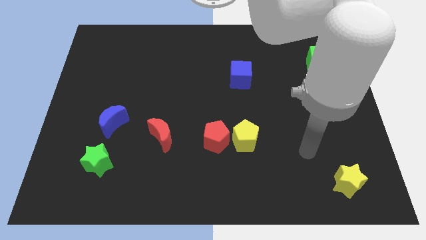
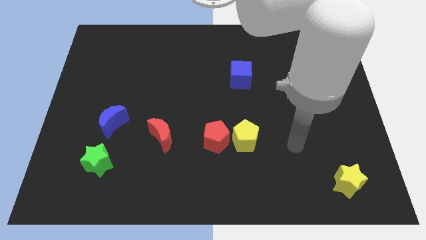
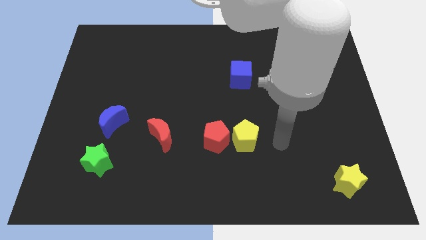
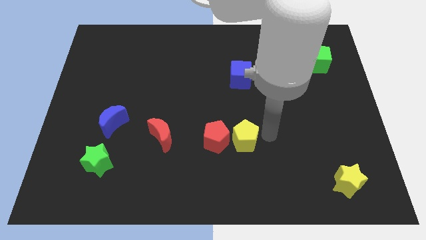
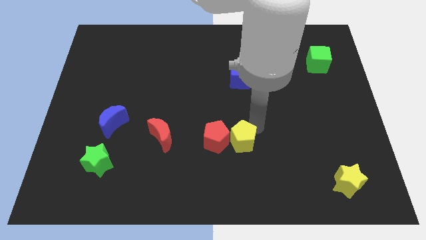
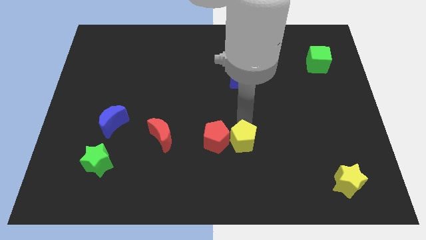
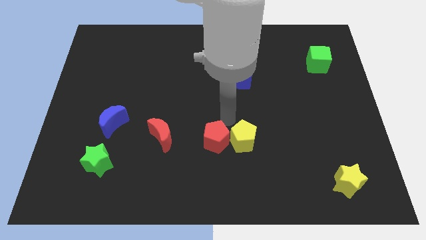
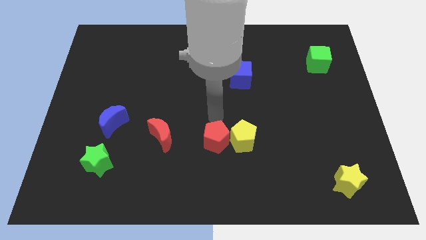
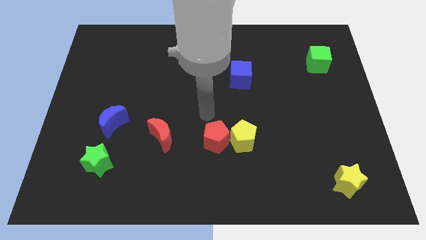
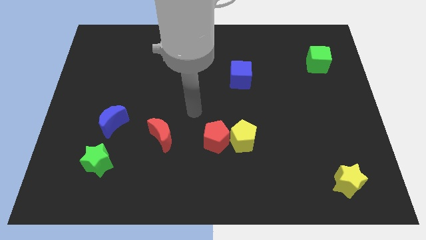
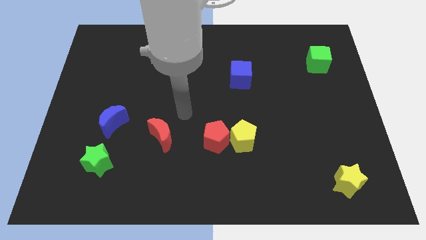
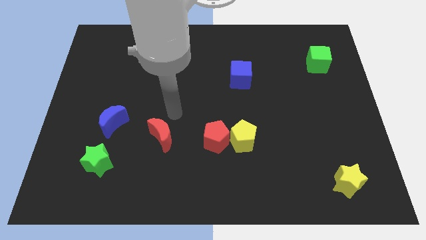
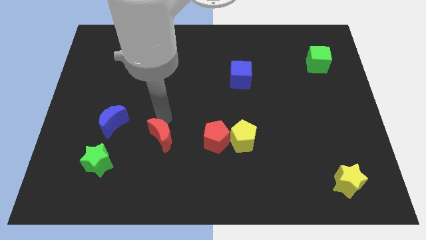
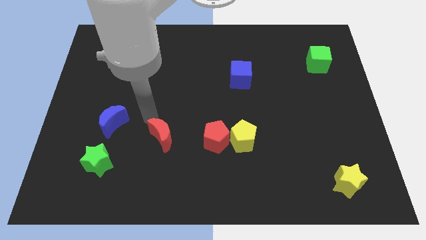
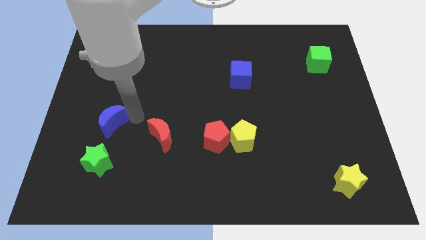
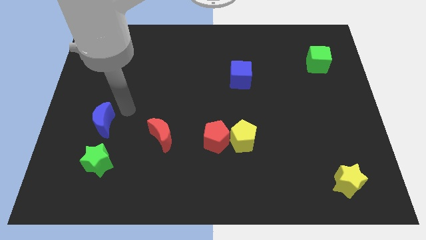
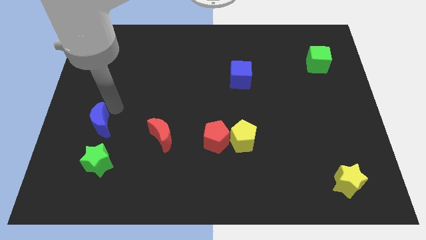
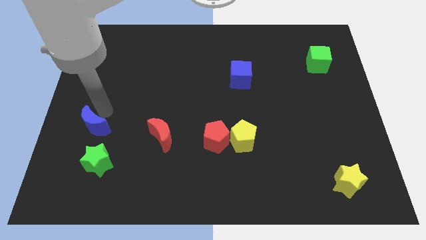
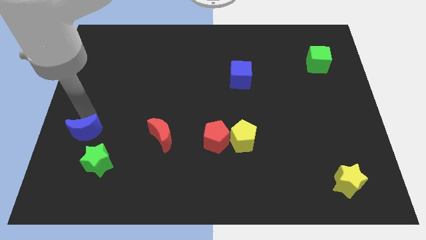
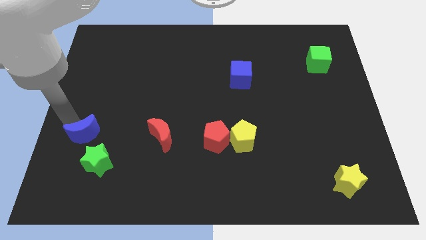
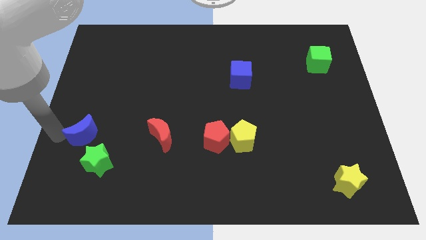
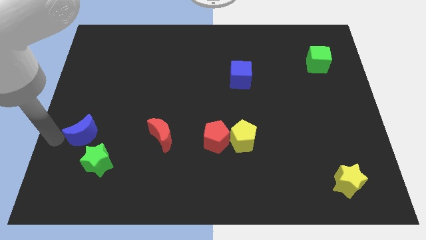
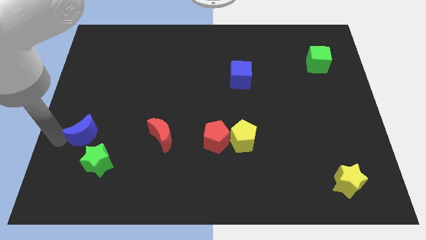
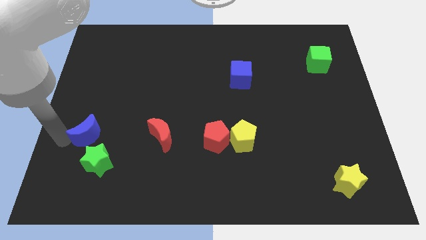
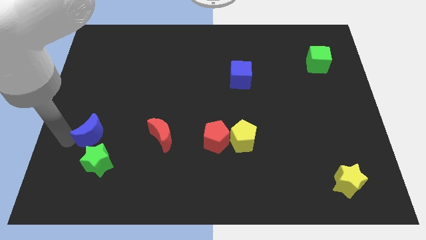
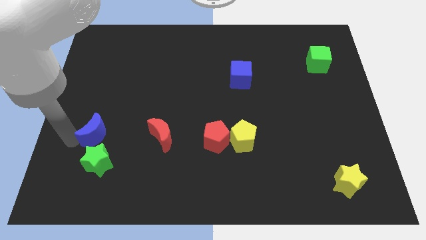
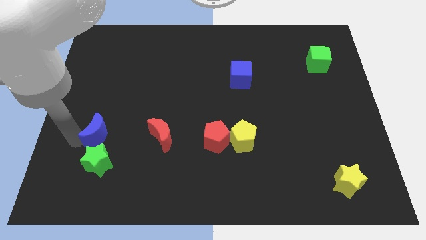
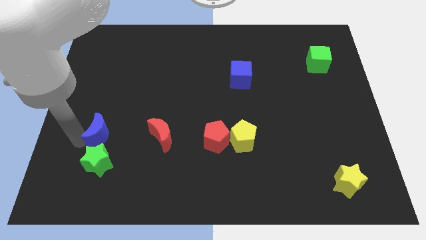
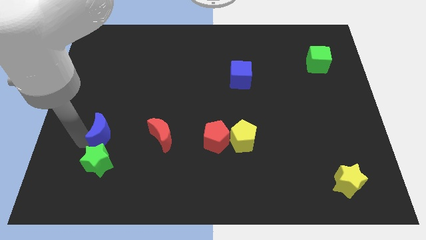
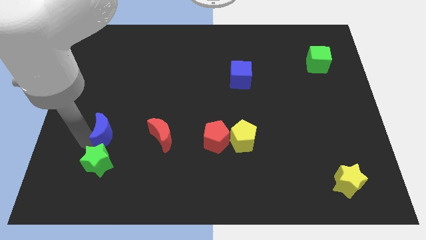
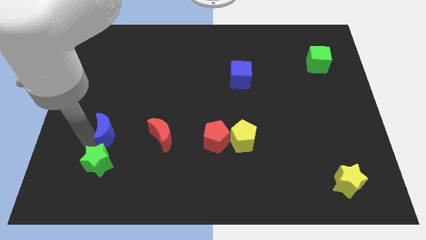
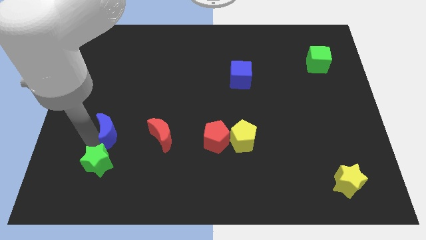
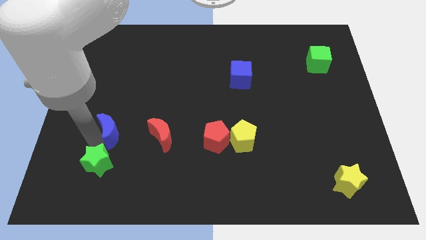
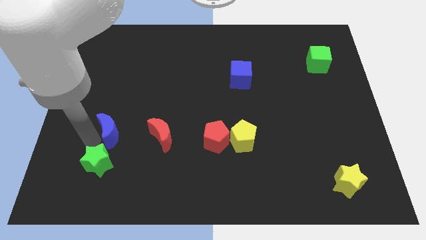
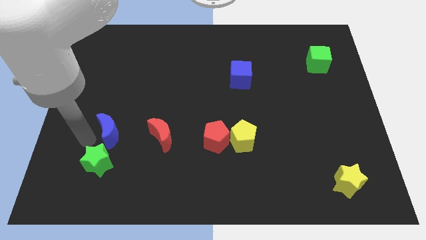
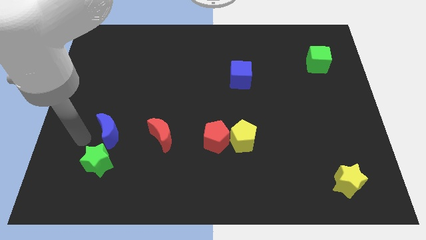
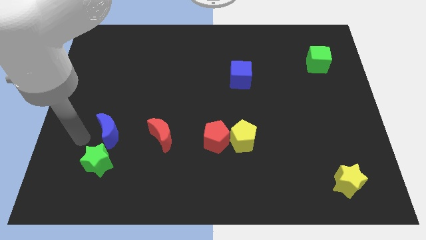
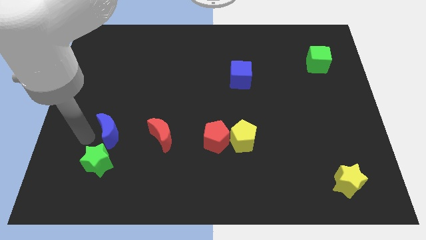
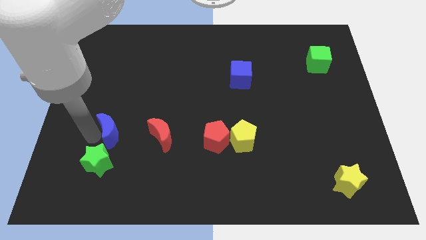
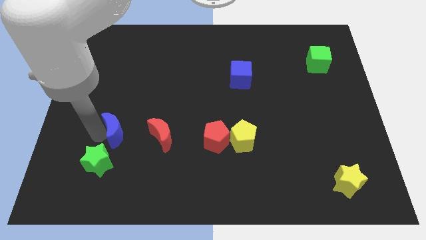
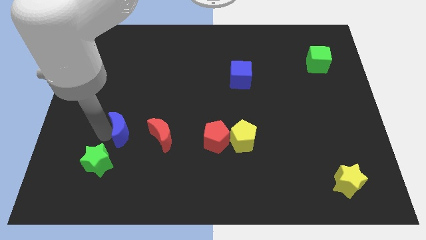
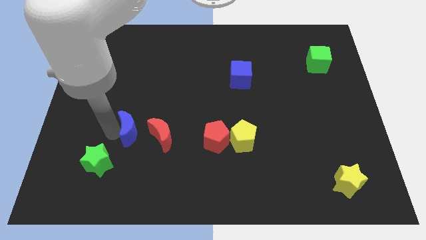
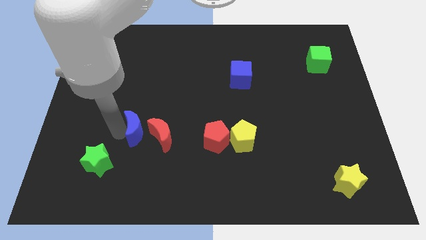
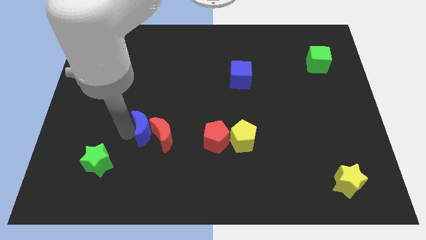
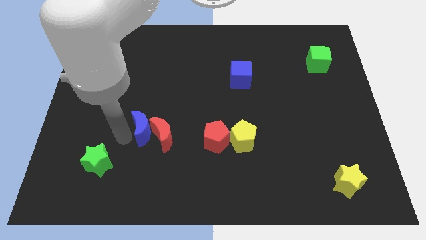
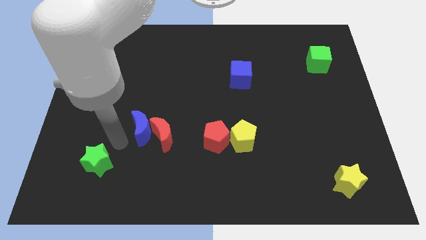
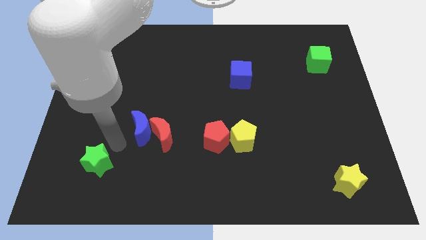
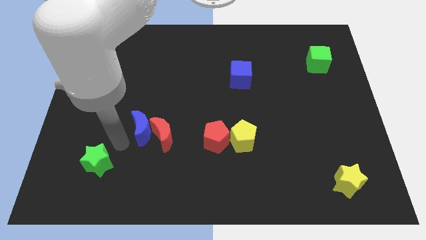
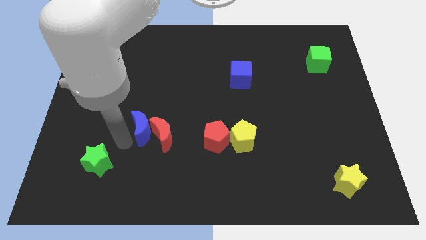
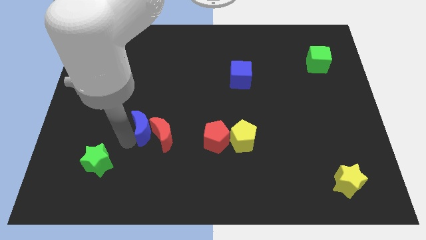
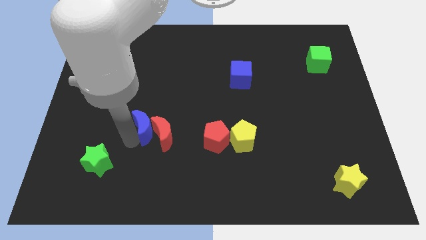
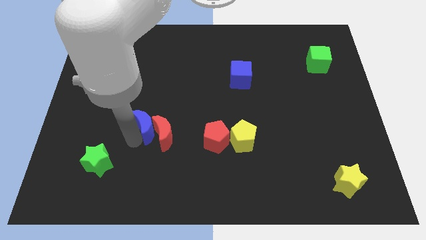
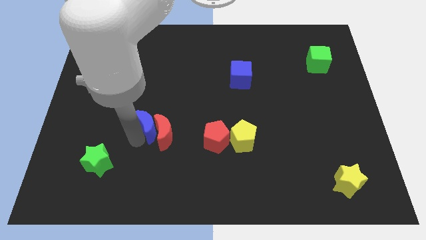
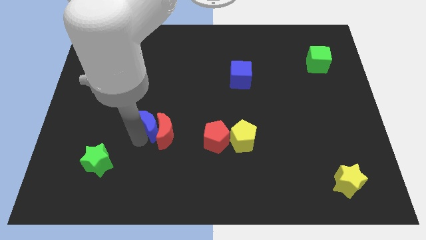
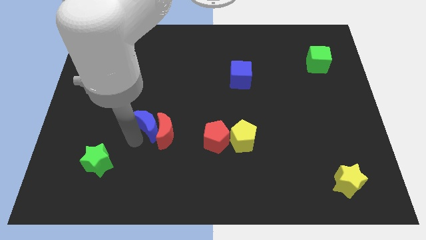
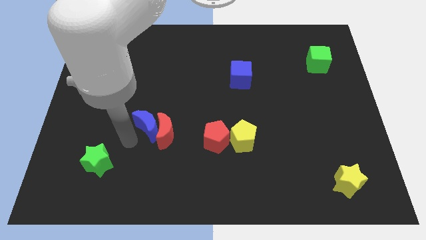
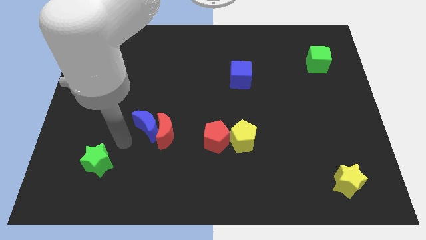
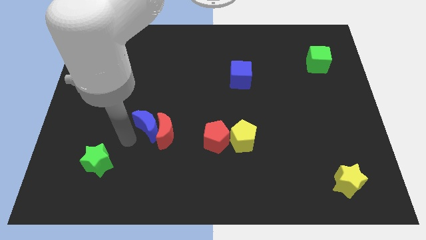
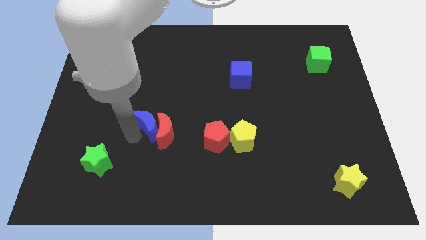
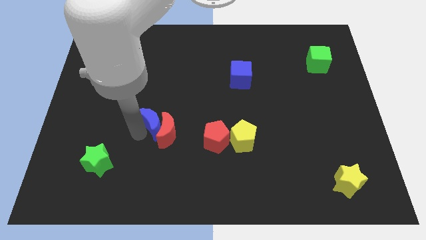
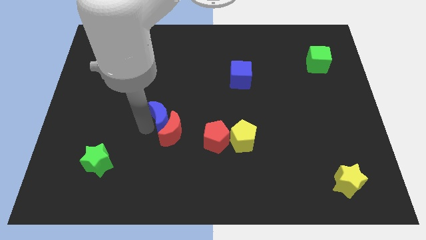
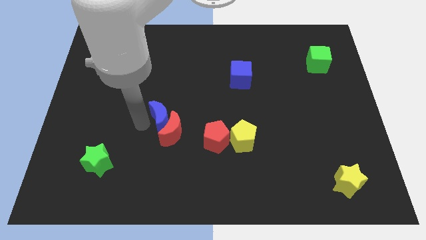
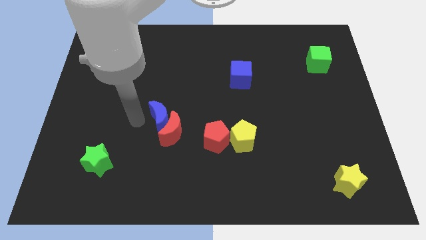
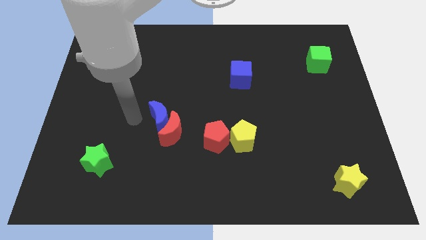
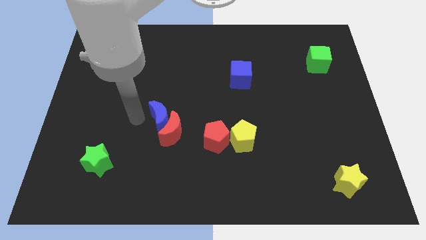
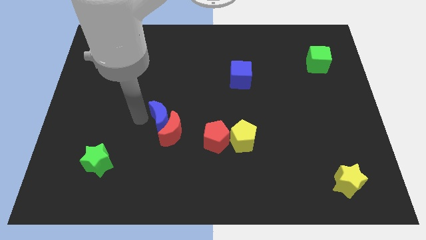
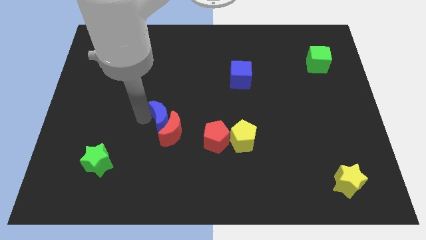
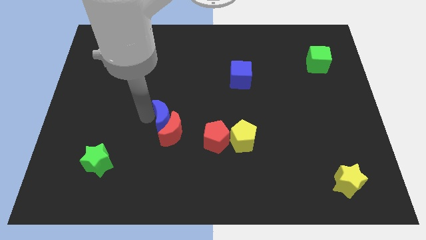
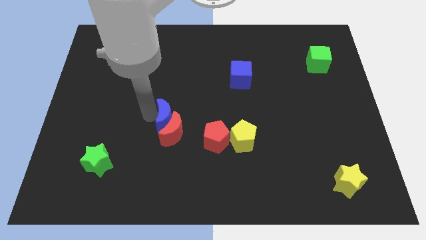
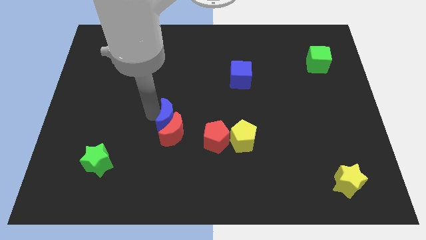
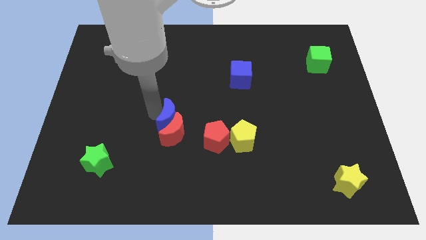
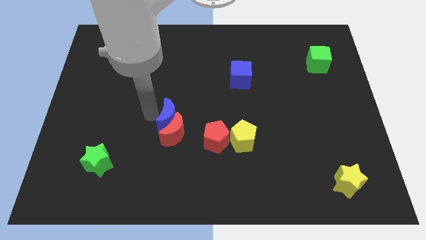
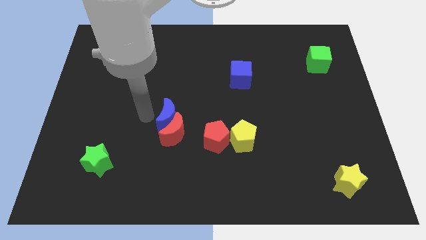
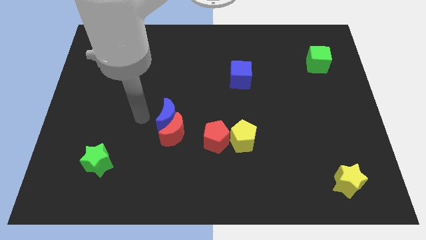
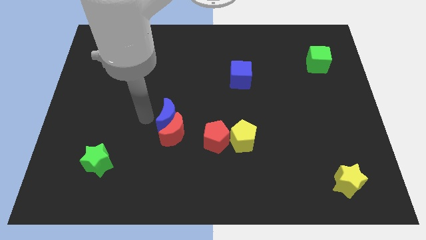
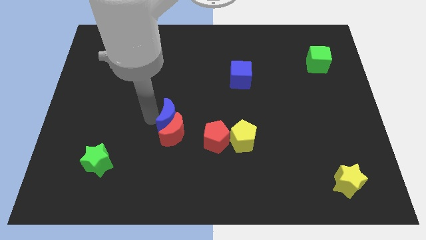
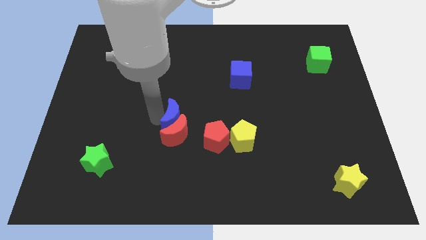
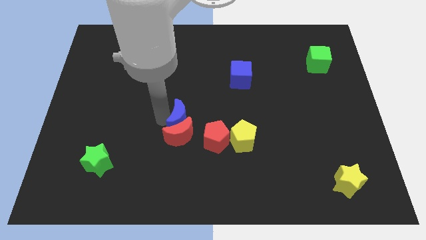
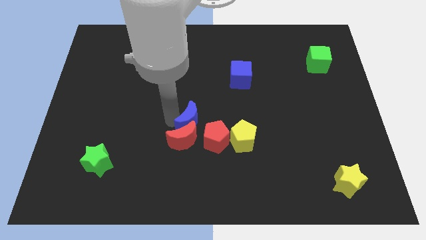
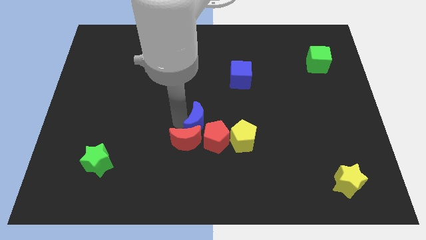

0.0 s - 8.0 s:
move the blue moon to the top left of the yellow pentagon
